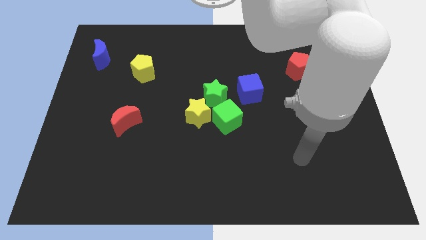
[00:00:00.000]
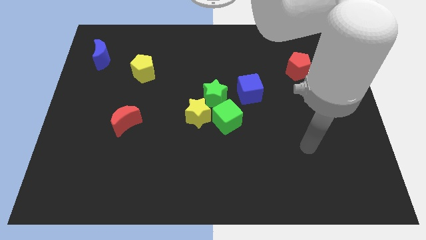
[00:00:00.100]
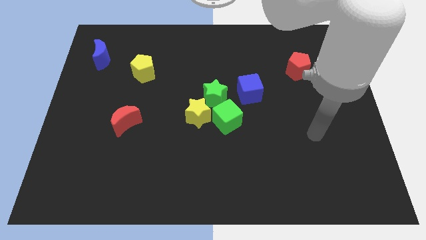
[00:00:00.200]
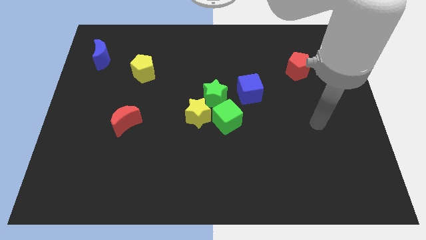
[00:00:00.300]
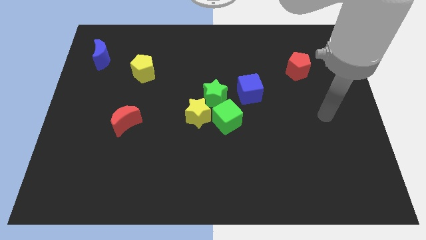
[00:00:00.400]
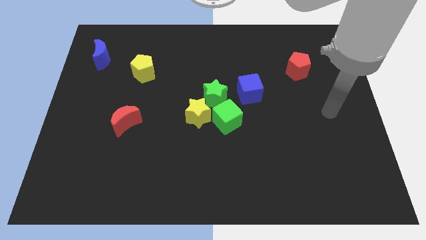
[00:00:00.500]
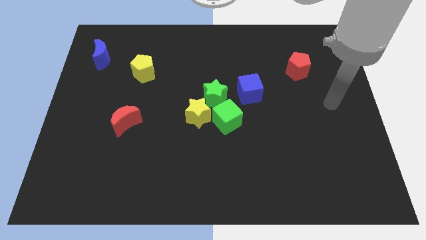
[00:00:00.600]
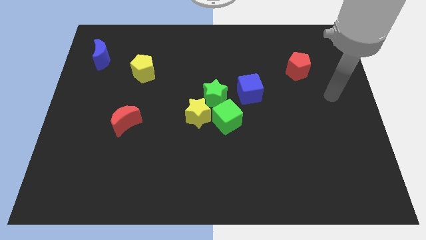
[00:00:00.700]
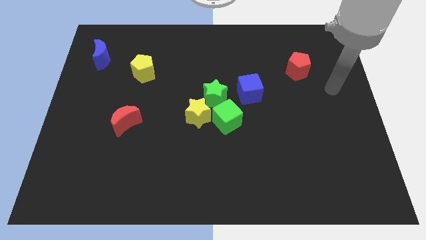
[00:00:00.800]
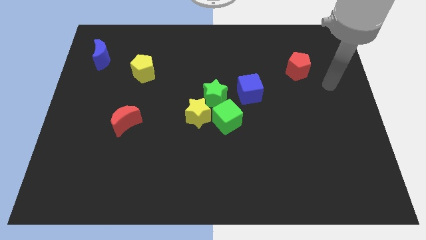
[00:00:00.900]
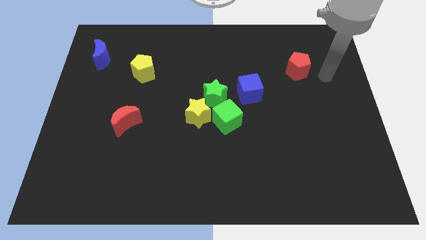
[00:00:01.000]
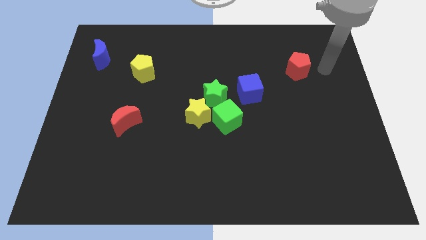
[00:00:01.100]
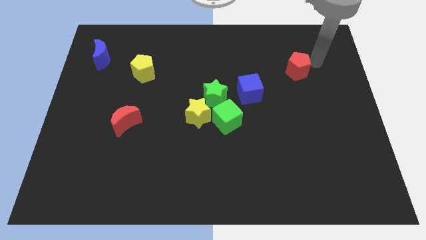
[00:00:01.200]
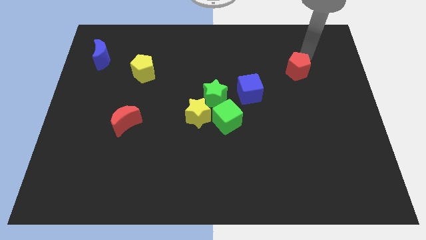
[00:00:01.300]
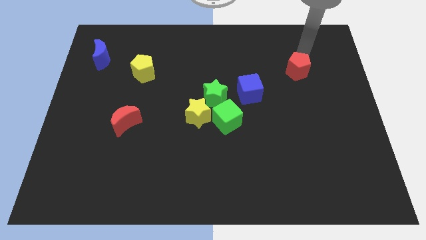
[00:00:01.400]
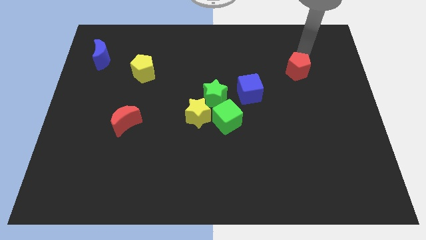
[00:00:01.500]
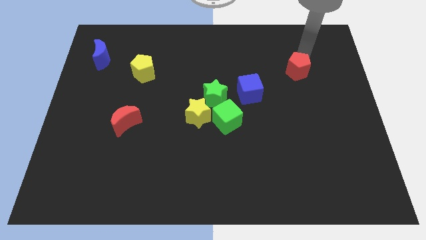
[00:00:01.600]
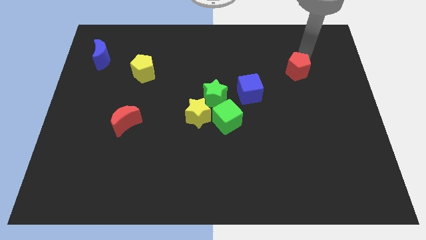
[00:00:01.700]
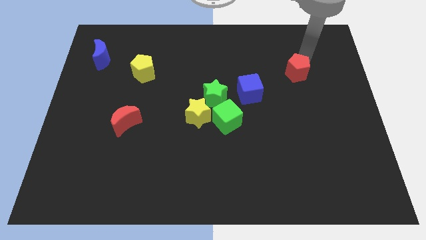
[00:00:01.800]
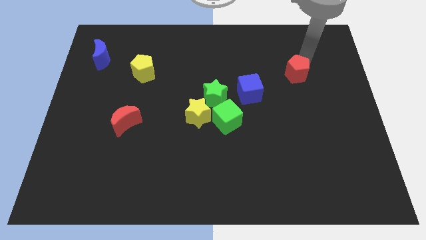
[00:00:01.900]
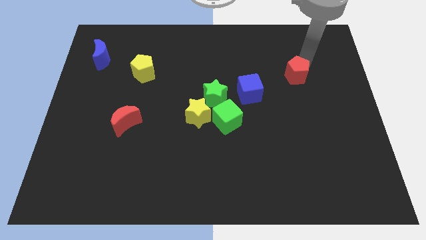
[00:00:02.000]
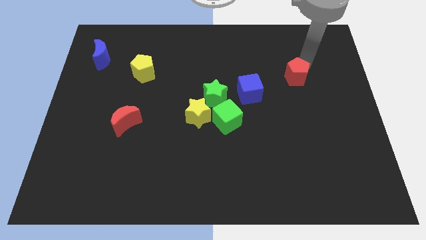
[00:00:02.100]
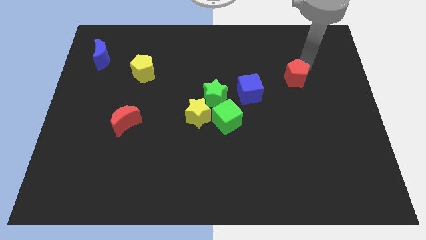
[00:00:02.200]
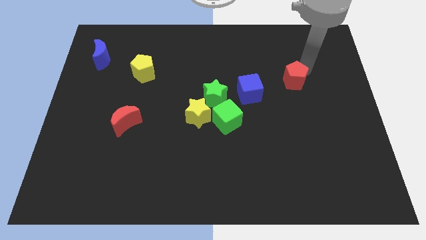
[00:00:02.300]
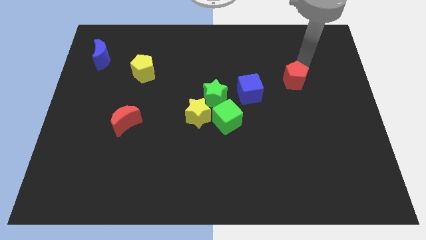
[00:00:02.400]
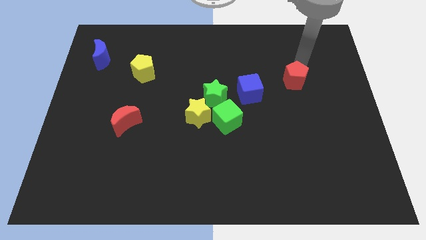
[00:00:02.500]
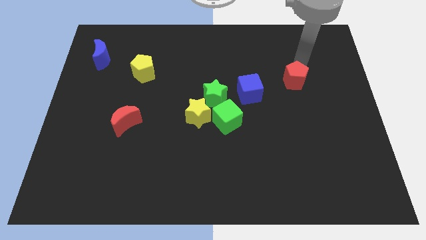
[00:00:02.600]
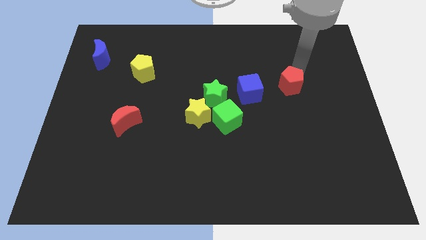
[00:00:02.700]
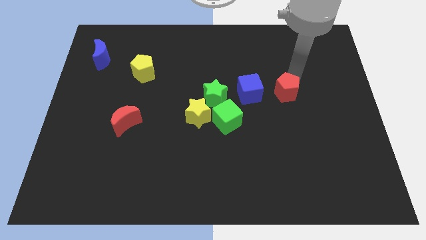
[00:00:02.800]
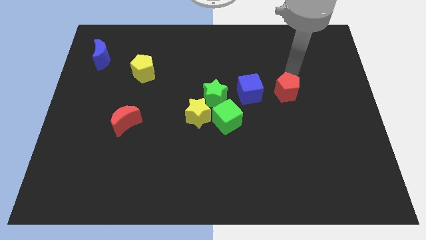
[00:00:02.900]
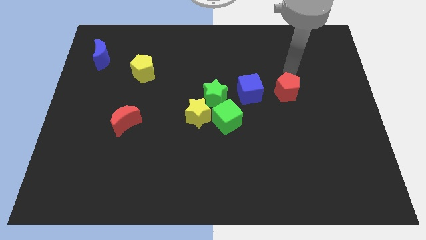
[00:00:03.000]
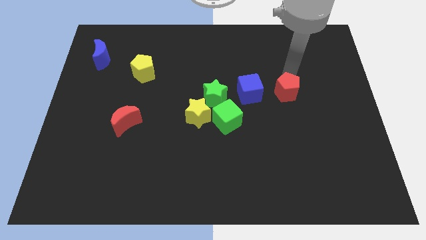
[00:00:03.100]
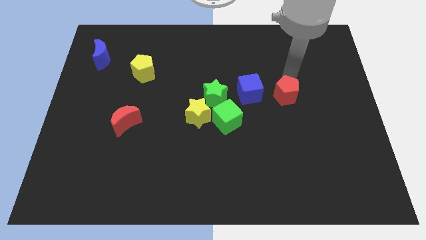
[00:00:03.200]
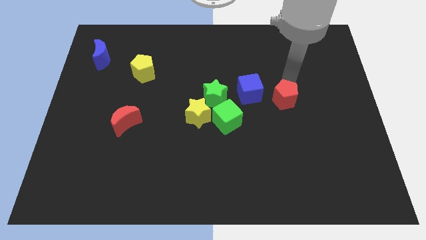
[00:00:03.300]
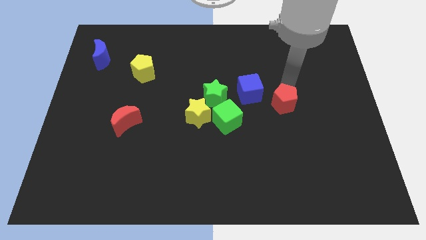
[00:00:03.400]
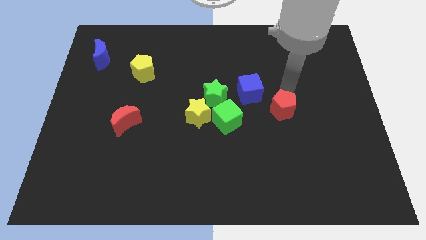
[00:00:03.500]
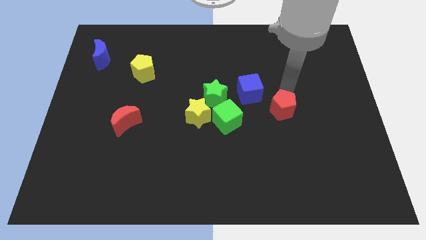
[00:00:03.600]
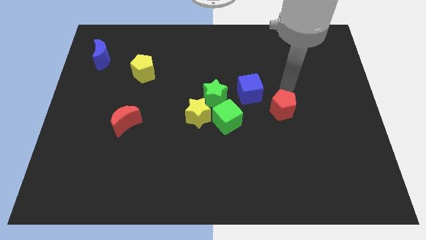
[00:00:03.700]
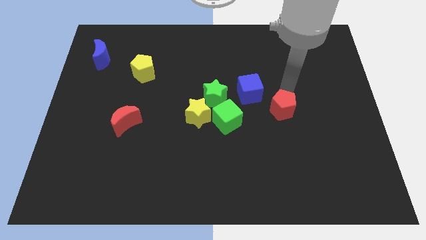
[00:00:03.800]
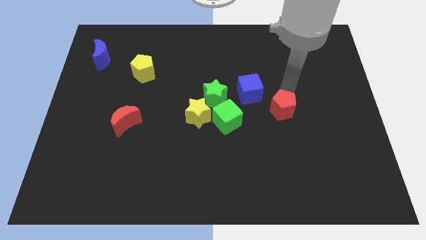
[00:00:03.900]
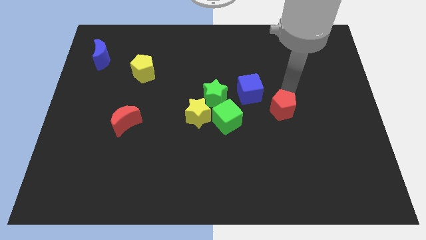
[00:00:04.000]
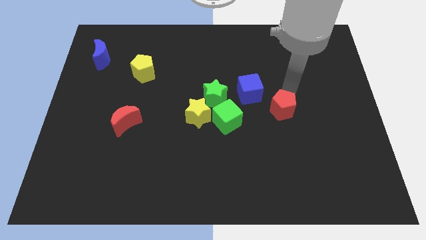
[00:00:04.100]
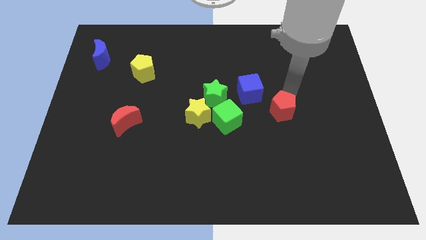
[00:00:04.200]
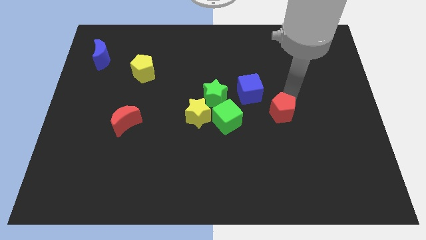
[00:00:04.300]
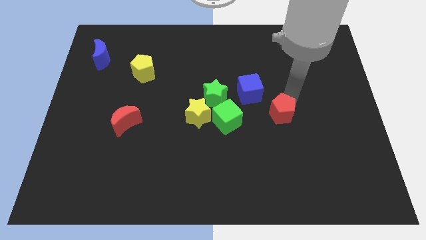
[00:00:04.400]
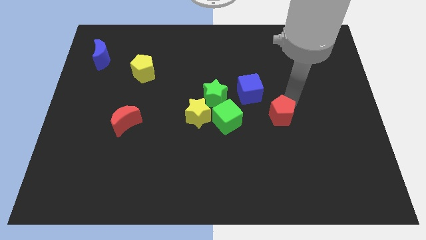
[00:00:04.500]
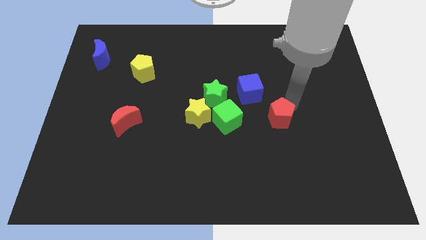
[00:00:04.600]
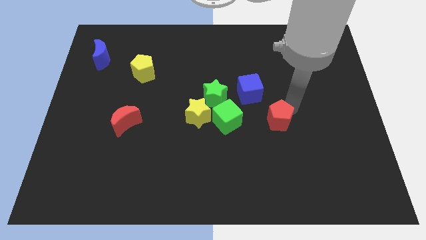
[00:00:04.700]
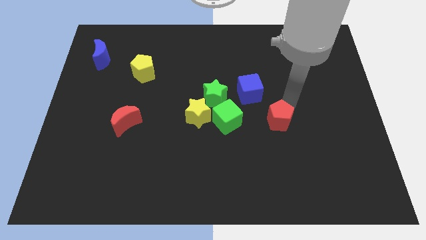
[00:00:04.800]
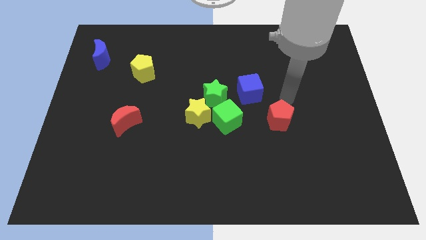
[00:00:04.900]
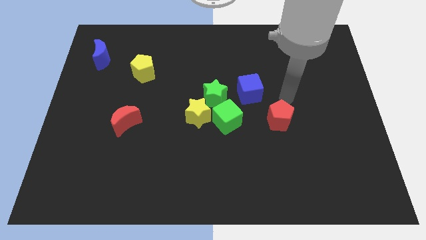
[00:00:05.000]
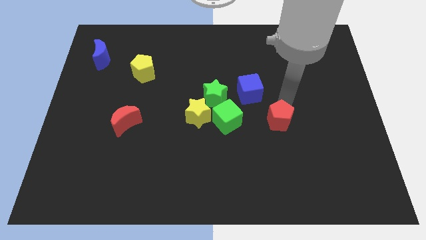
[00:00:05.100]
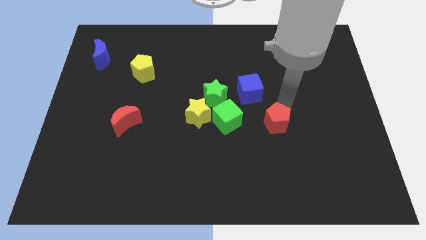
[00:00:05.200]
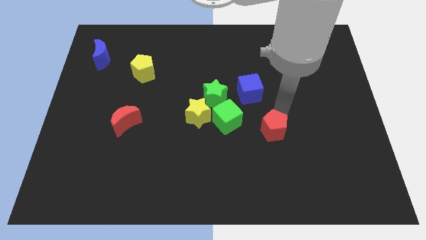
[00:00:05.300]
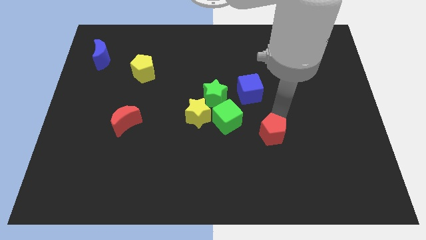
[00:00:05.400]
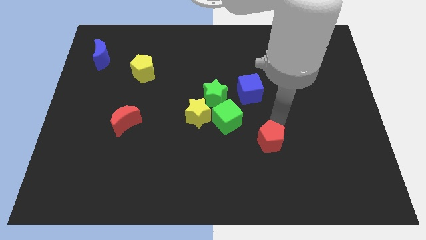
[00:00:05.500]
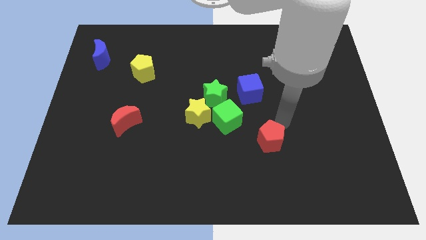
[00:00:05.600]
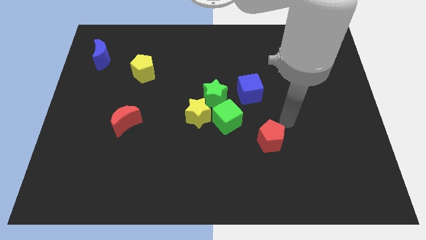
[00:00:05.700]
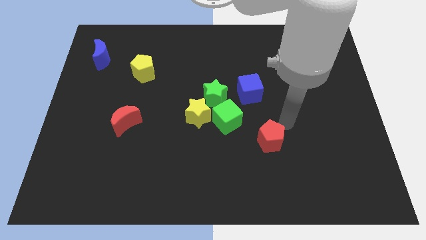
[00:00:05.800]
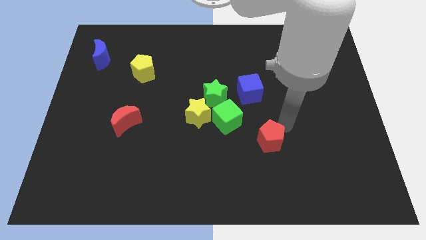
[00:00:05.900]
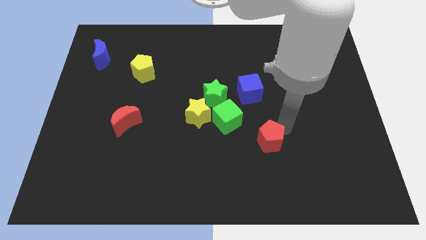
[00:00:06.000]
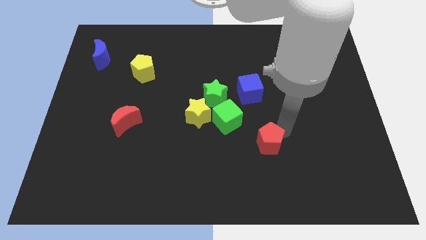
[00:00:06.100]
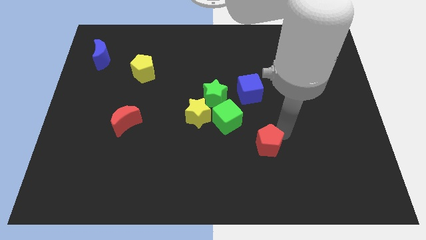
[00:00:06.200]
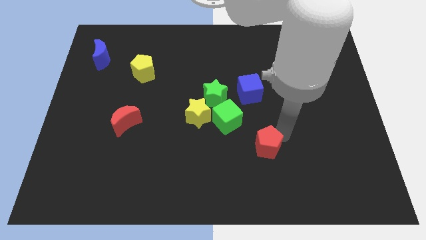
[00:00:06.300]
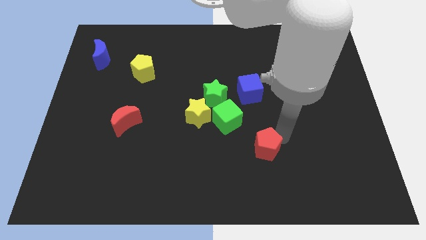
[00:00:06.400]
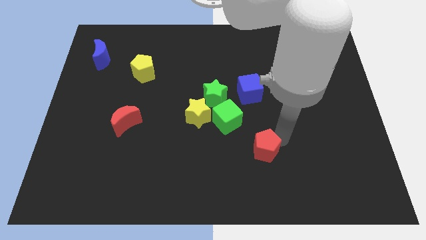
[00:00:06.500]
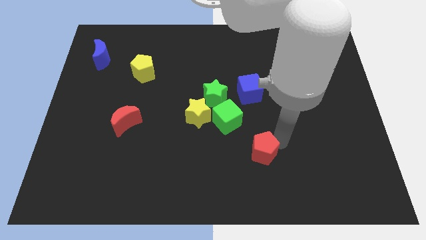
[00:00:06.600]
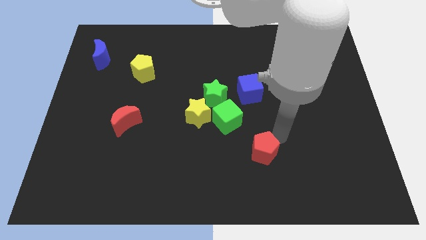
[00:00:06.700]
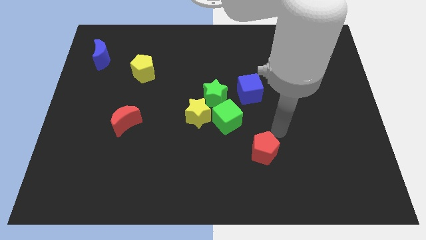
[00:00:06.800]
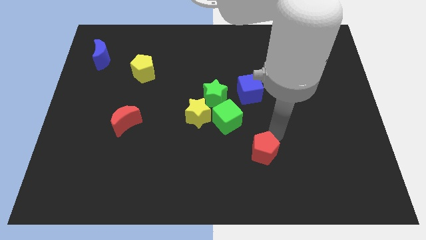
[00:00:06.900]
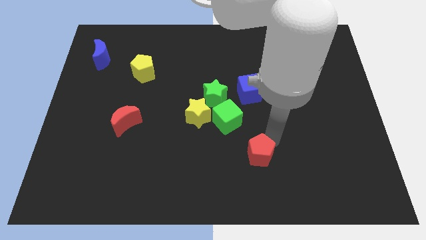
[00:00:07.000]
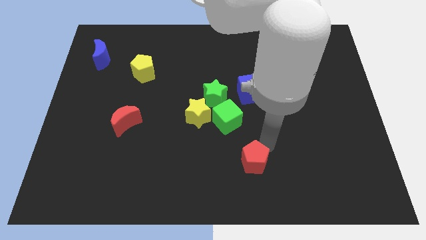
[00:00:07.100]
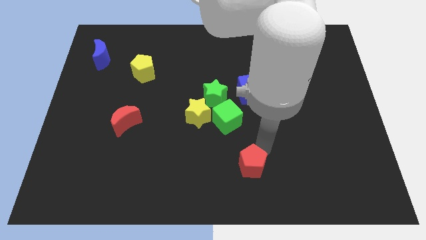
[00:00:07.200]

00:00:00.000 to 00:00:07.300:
slide the red pentagon to the bottom

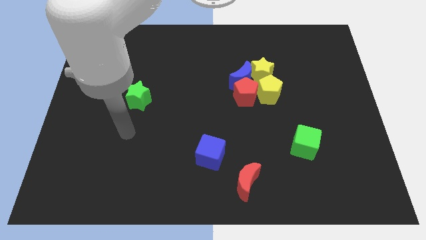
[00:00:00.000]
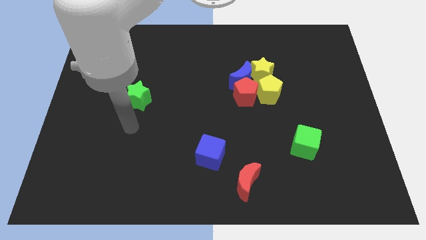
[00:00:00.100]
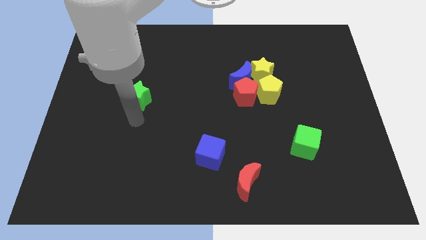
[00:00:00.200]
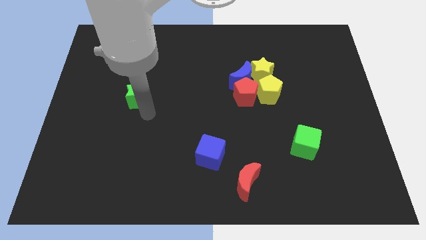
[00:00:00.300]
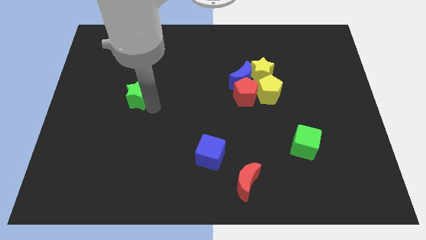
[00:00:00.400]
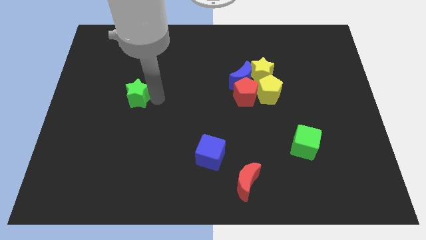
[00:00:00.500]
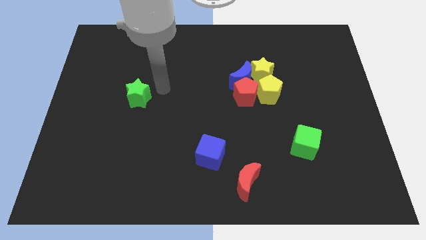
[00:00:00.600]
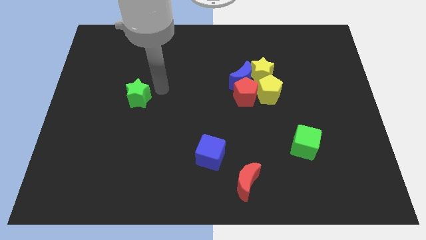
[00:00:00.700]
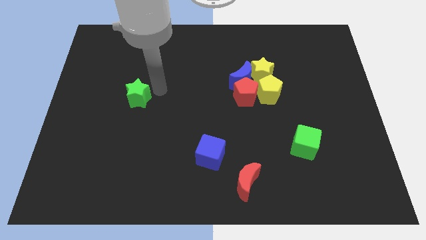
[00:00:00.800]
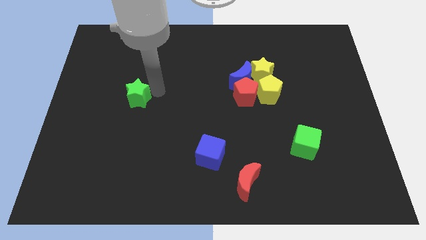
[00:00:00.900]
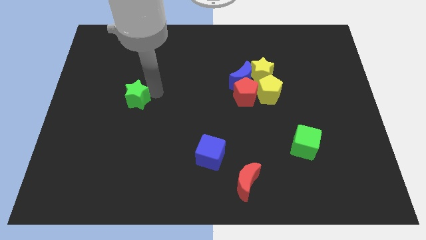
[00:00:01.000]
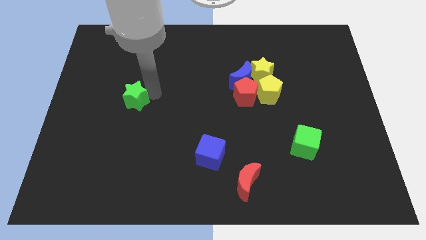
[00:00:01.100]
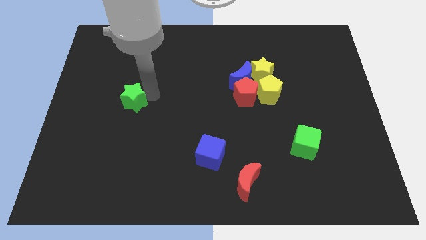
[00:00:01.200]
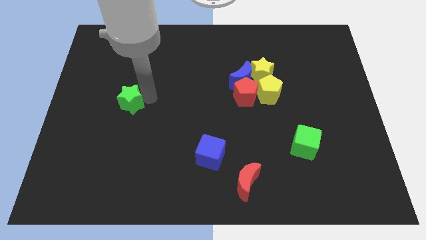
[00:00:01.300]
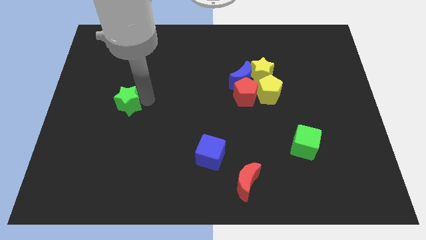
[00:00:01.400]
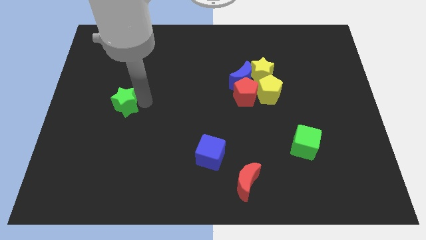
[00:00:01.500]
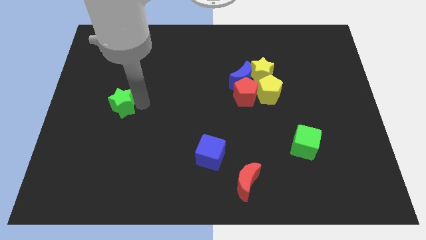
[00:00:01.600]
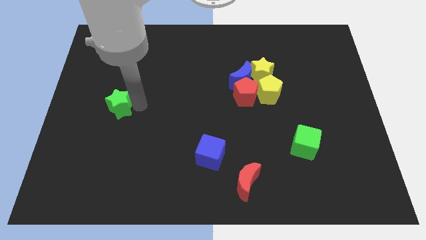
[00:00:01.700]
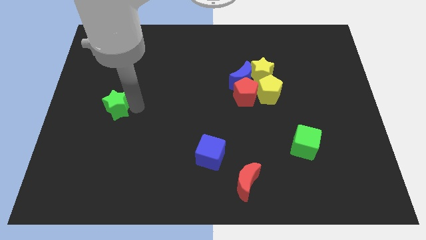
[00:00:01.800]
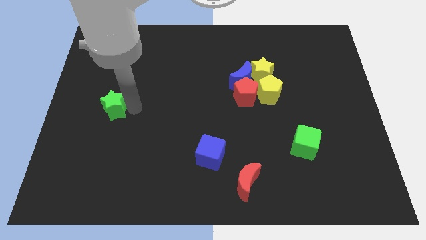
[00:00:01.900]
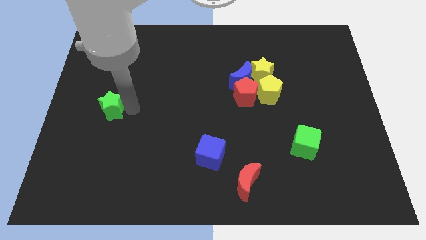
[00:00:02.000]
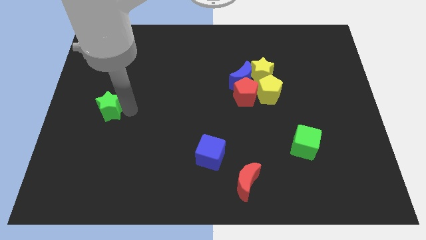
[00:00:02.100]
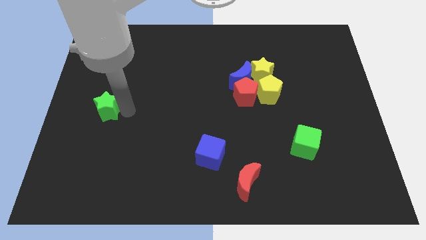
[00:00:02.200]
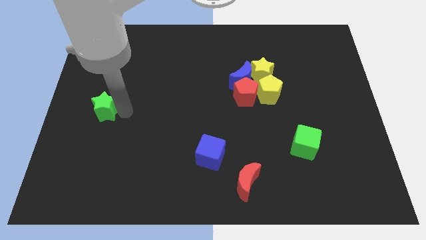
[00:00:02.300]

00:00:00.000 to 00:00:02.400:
move the green star to the left side of the board
